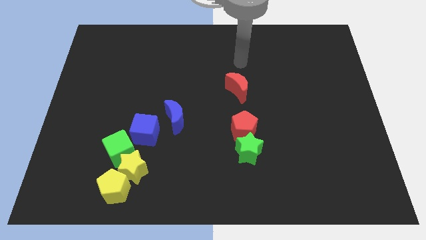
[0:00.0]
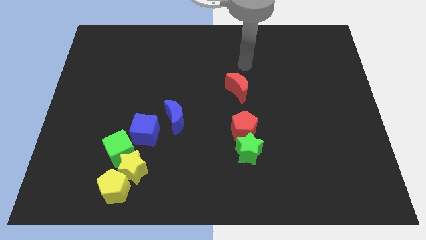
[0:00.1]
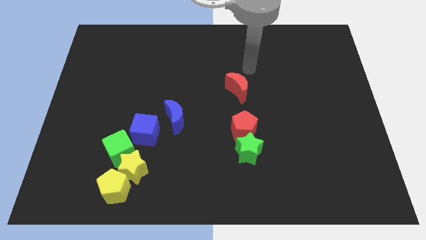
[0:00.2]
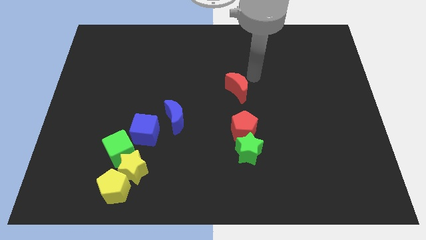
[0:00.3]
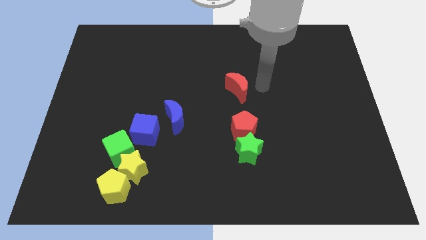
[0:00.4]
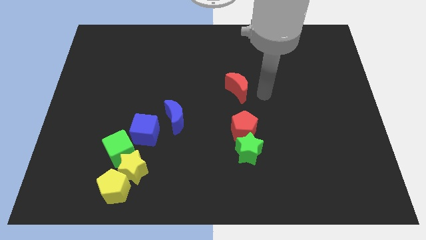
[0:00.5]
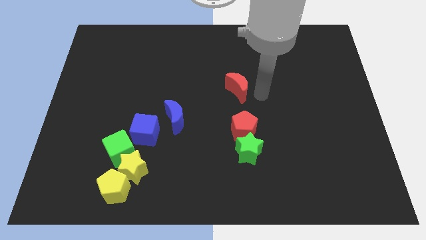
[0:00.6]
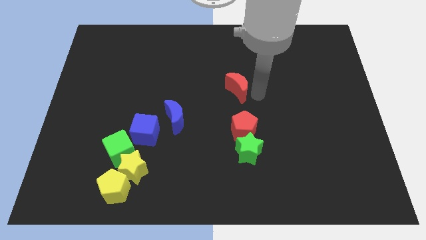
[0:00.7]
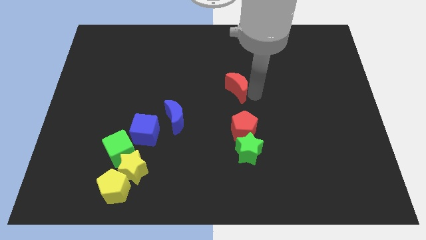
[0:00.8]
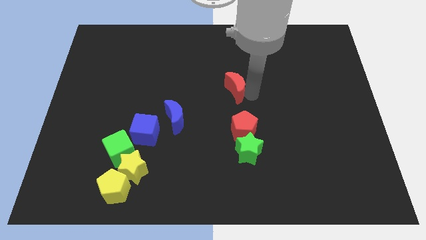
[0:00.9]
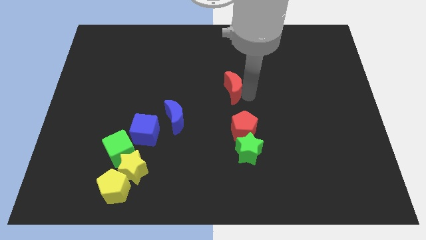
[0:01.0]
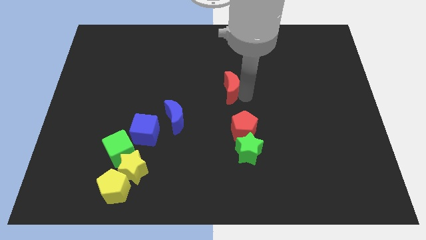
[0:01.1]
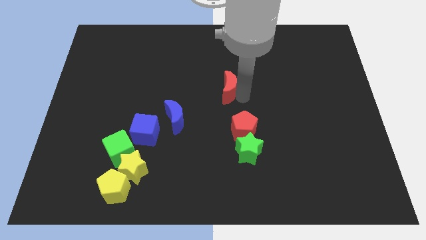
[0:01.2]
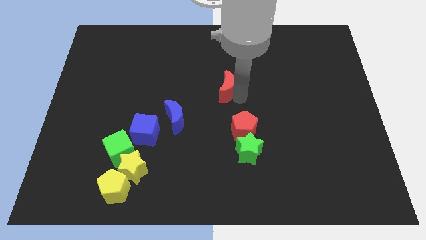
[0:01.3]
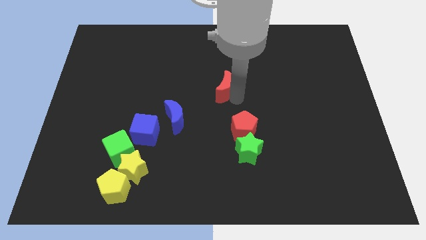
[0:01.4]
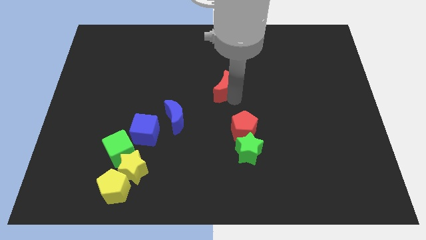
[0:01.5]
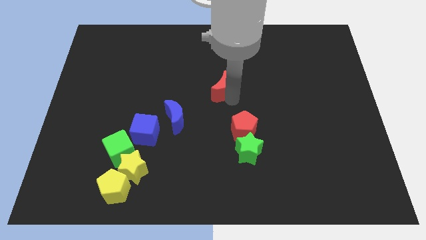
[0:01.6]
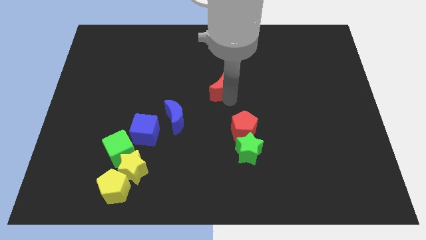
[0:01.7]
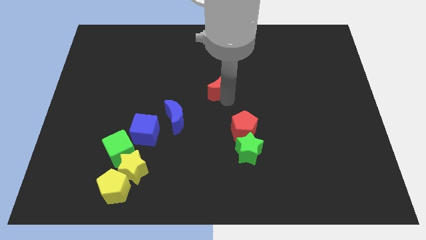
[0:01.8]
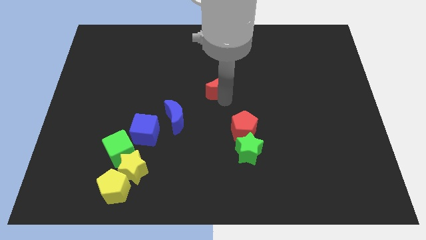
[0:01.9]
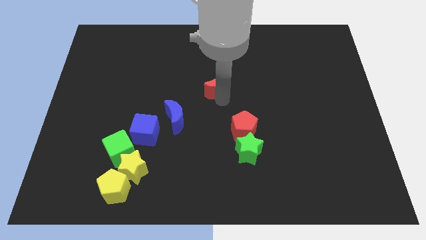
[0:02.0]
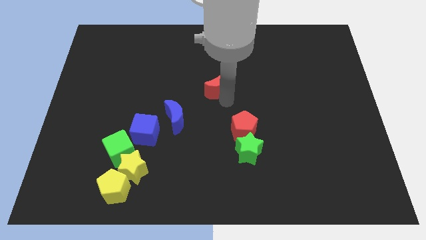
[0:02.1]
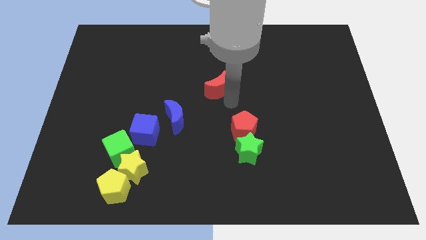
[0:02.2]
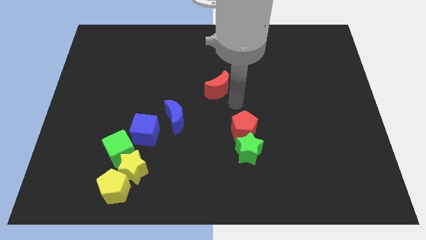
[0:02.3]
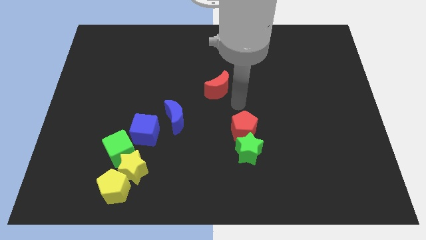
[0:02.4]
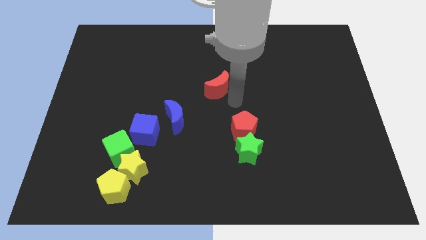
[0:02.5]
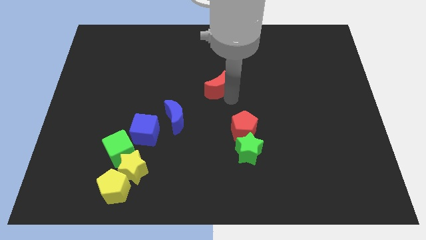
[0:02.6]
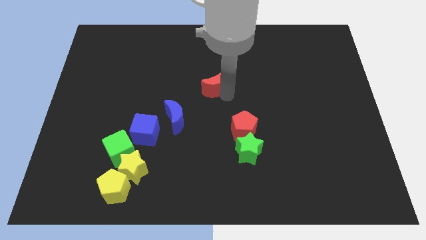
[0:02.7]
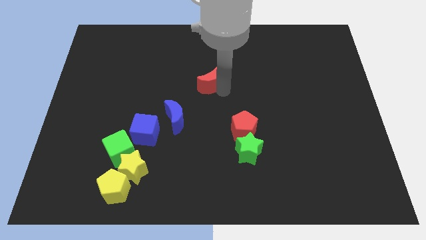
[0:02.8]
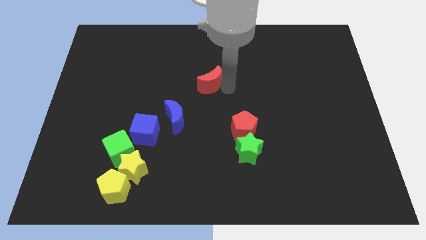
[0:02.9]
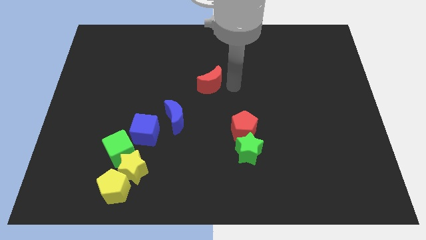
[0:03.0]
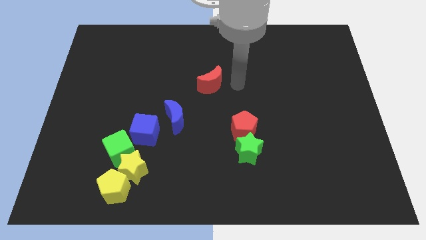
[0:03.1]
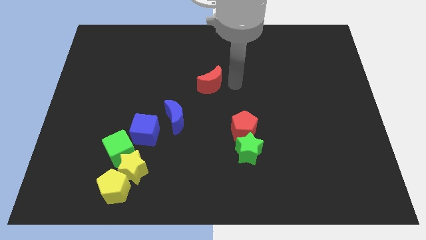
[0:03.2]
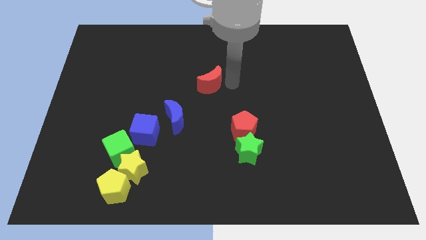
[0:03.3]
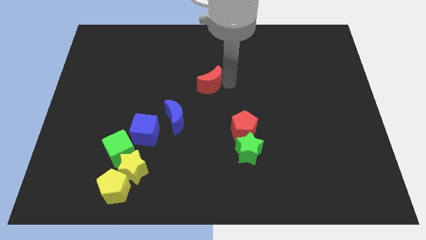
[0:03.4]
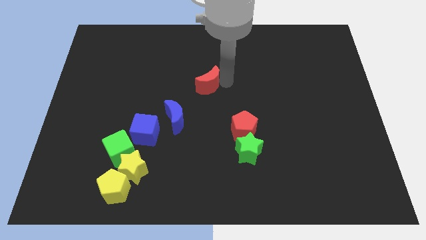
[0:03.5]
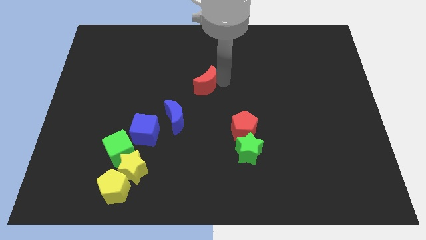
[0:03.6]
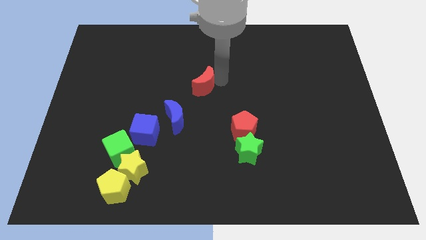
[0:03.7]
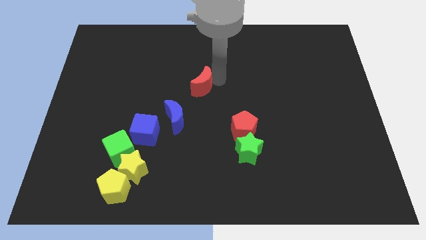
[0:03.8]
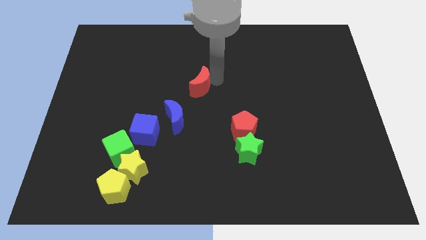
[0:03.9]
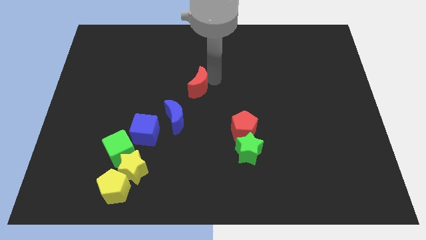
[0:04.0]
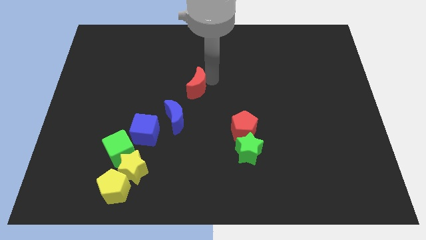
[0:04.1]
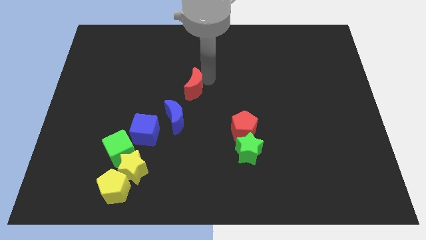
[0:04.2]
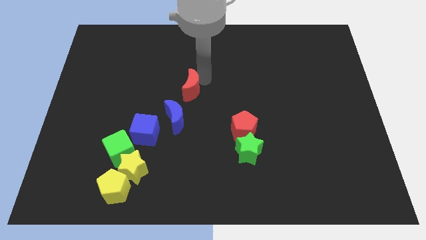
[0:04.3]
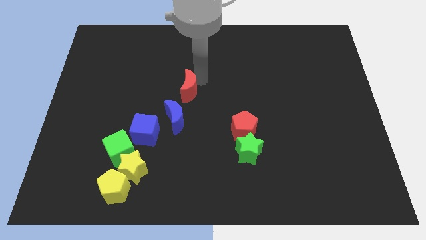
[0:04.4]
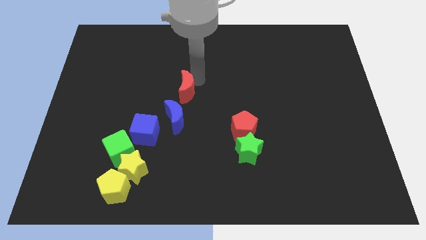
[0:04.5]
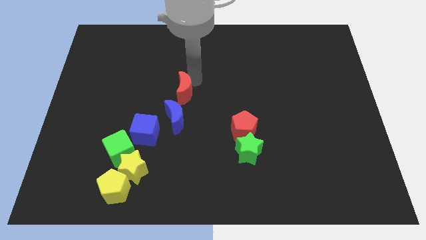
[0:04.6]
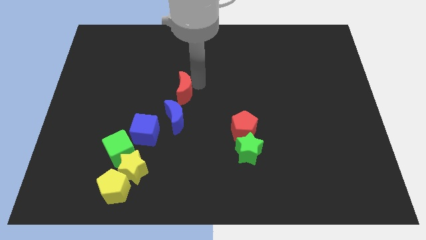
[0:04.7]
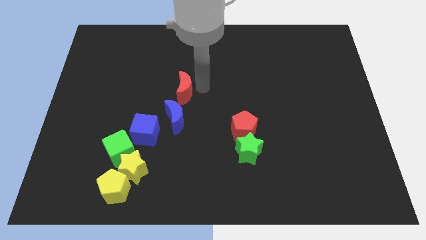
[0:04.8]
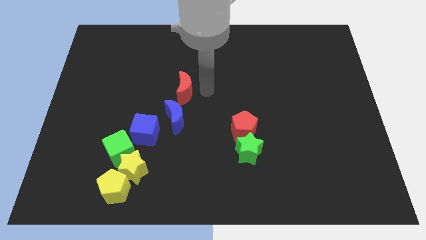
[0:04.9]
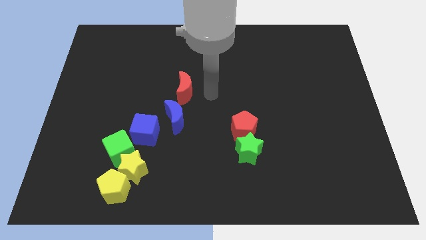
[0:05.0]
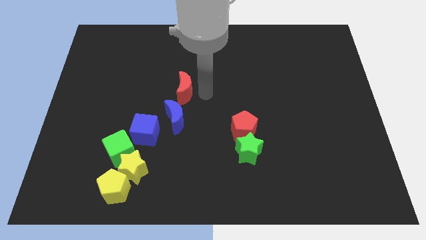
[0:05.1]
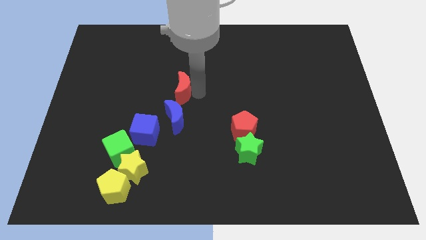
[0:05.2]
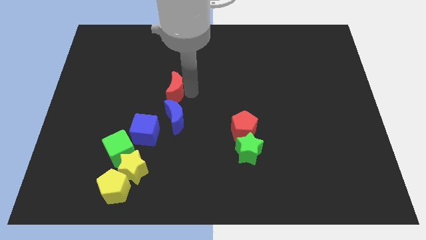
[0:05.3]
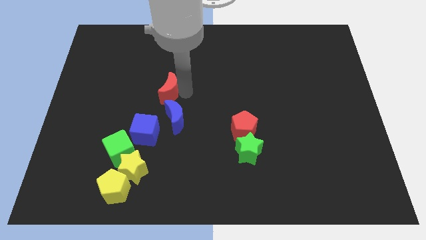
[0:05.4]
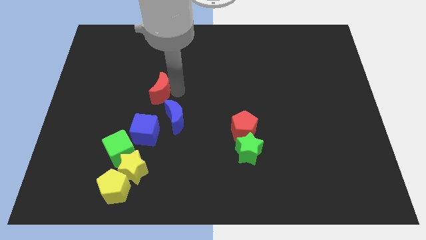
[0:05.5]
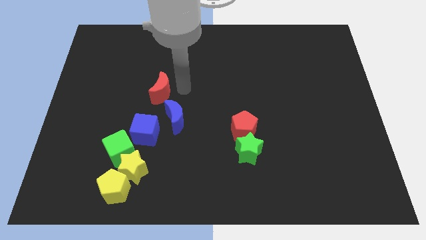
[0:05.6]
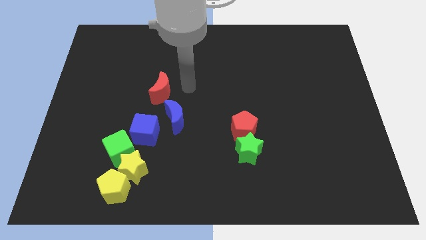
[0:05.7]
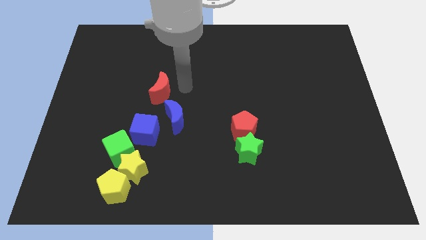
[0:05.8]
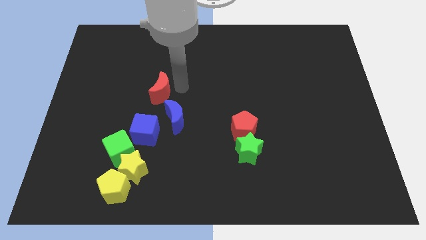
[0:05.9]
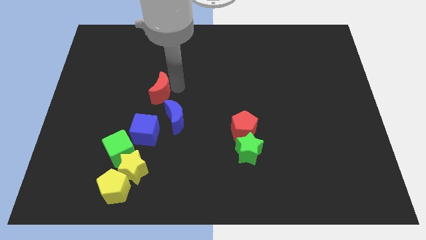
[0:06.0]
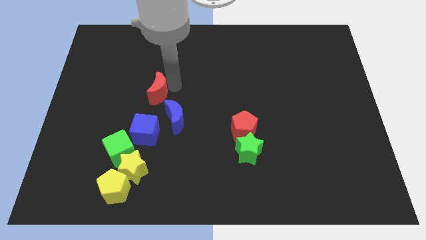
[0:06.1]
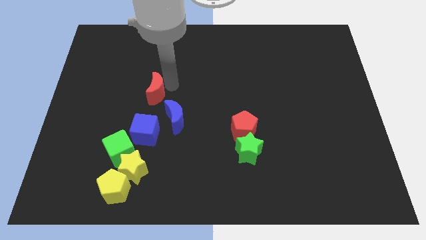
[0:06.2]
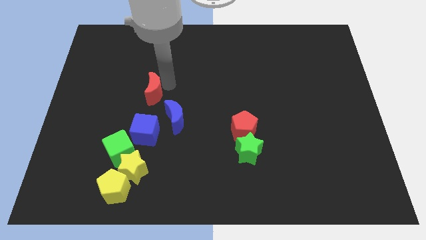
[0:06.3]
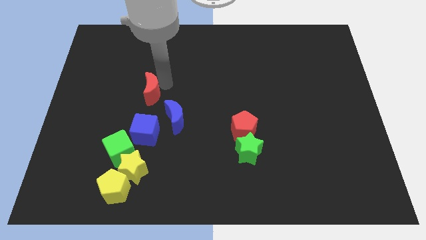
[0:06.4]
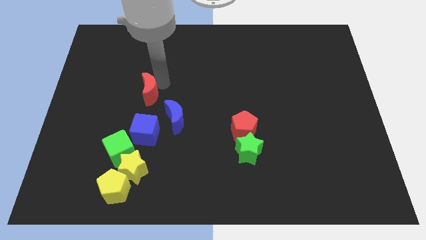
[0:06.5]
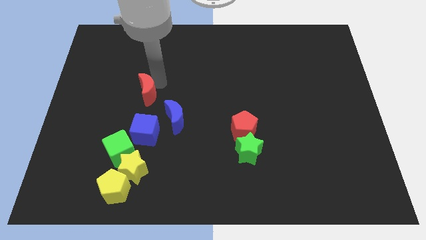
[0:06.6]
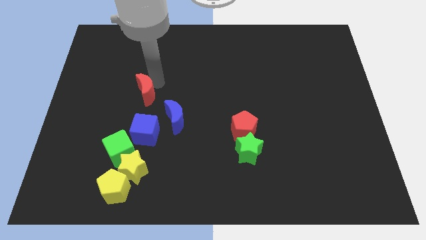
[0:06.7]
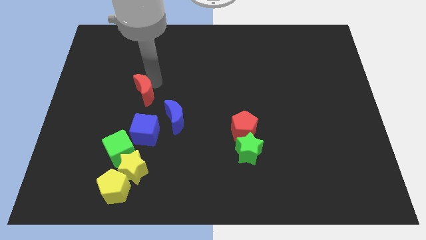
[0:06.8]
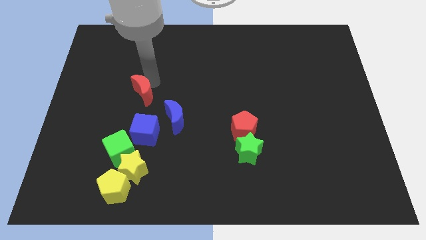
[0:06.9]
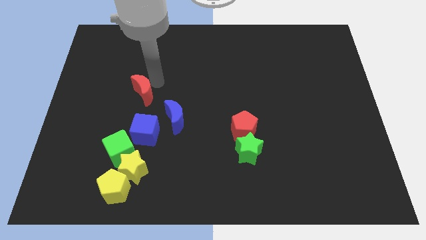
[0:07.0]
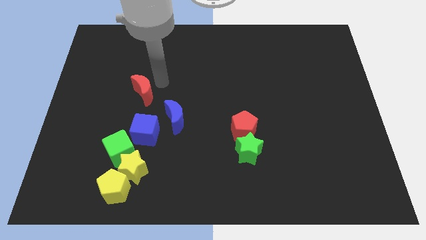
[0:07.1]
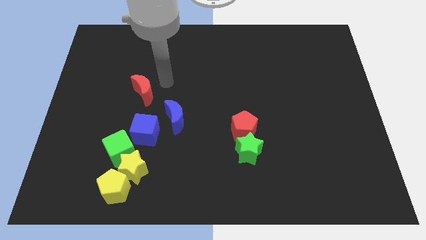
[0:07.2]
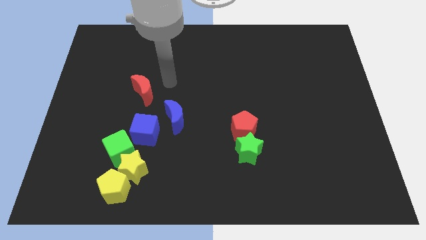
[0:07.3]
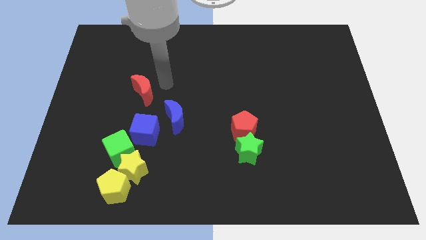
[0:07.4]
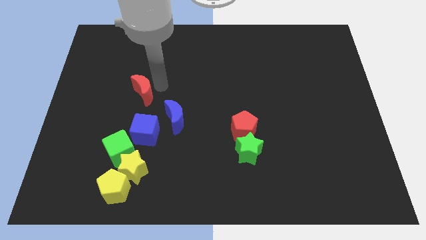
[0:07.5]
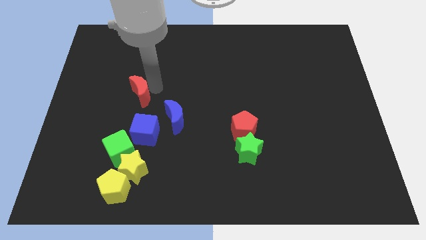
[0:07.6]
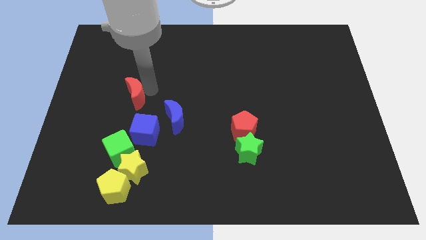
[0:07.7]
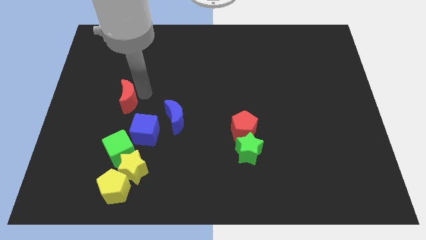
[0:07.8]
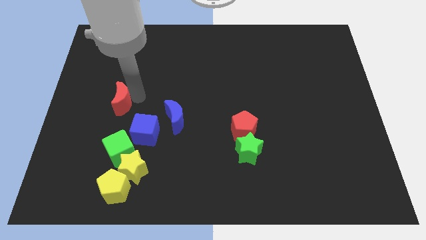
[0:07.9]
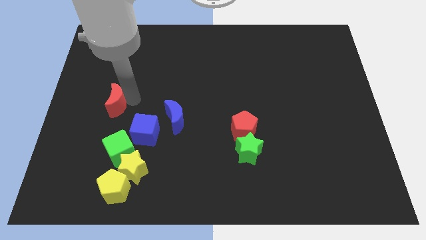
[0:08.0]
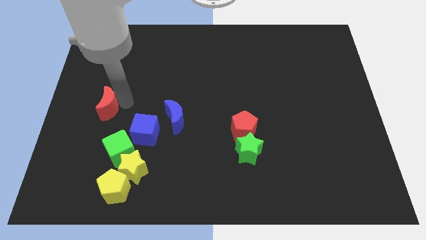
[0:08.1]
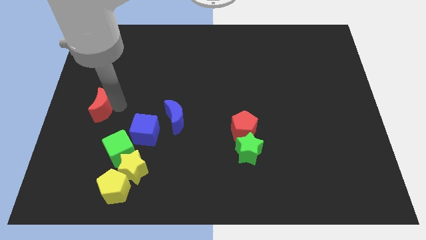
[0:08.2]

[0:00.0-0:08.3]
move the red moon to the center left
